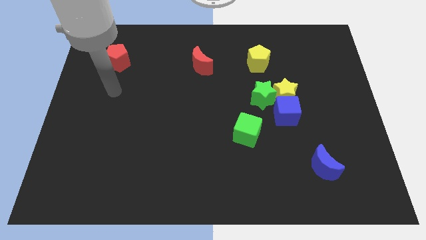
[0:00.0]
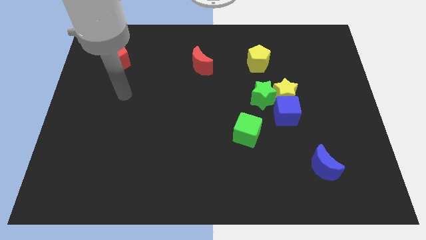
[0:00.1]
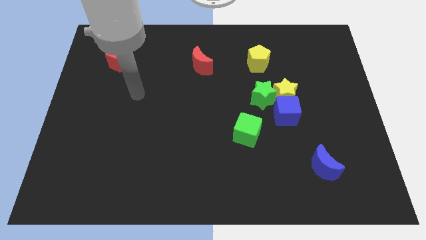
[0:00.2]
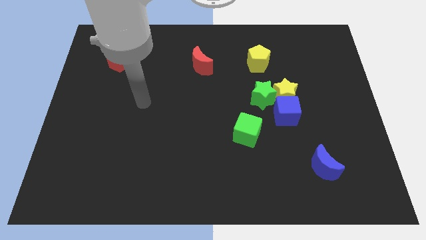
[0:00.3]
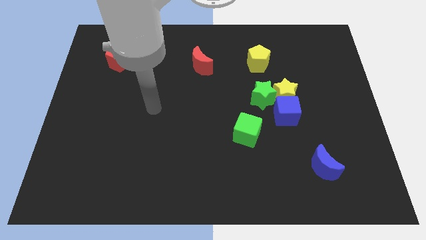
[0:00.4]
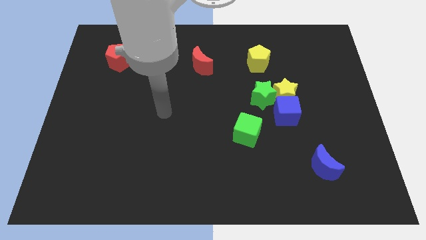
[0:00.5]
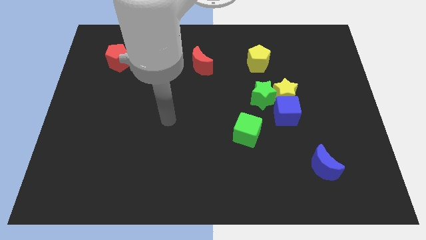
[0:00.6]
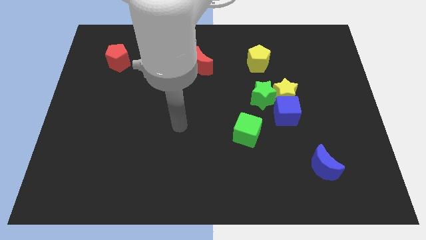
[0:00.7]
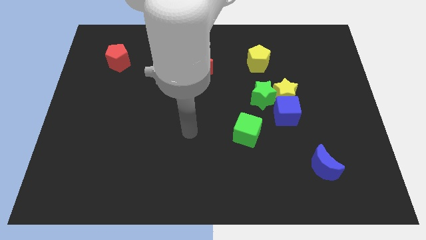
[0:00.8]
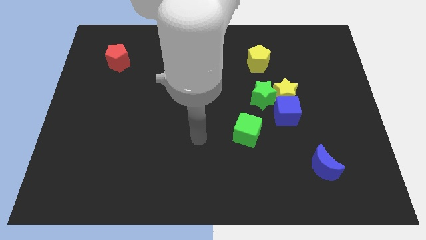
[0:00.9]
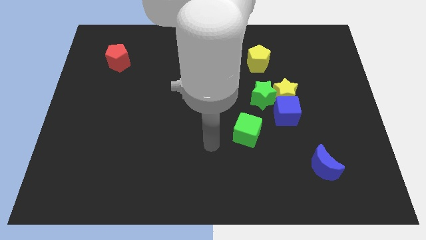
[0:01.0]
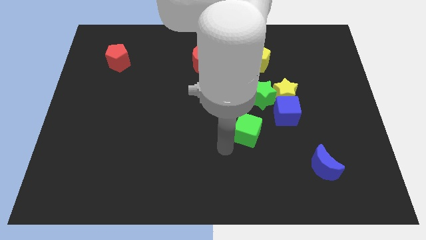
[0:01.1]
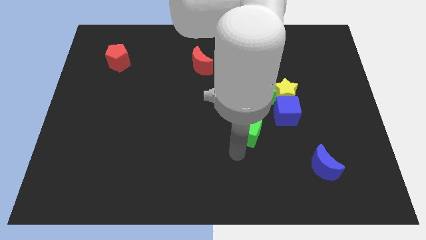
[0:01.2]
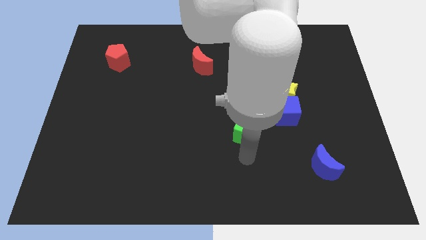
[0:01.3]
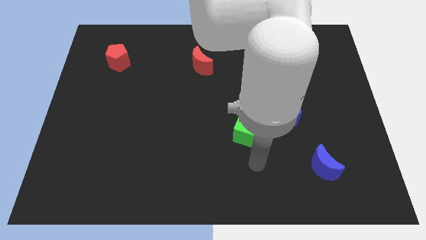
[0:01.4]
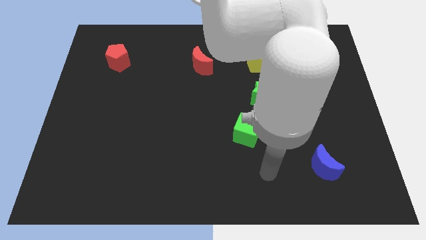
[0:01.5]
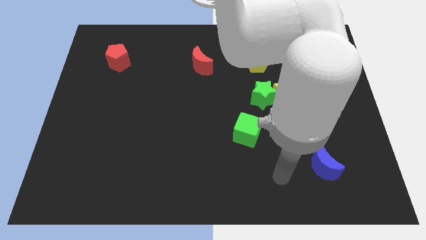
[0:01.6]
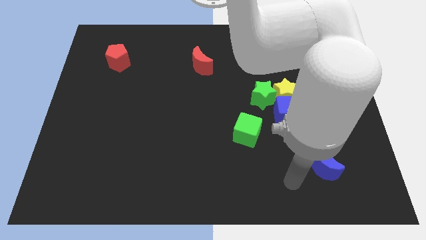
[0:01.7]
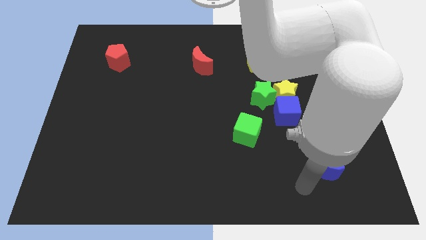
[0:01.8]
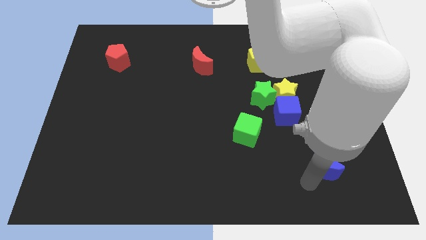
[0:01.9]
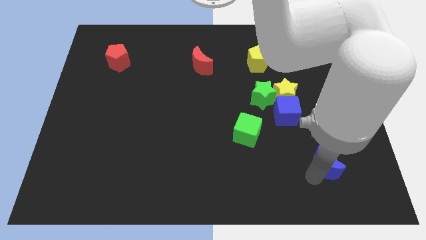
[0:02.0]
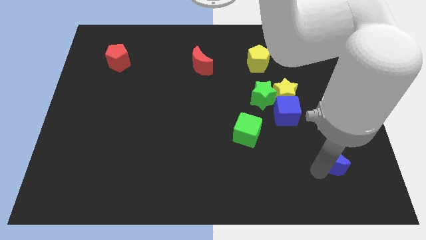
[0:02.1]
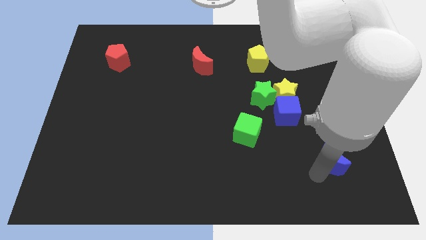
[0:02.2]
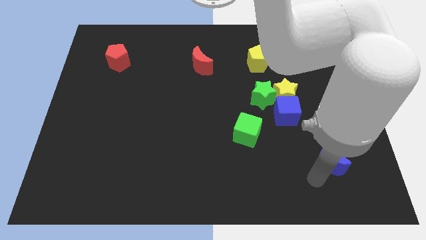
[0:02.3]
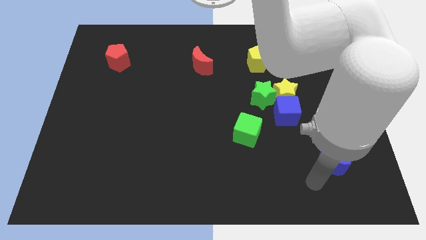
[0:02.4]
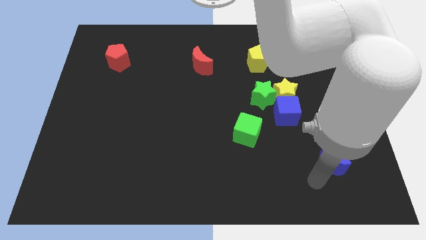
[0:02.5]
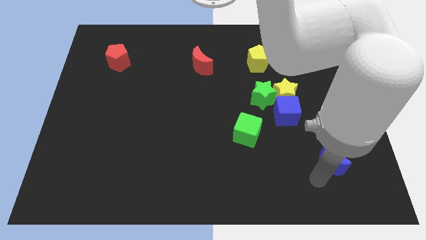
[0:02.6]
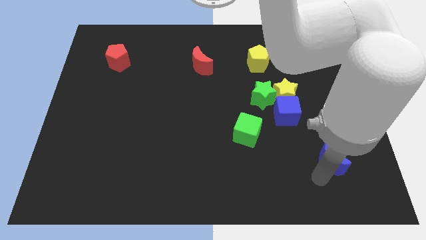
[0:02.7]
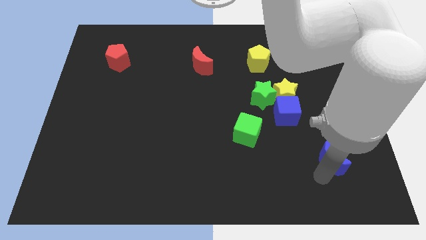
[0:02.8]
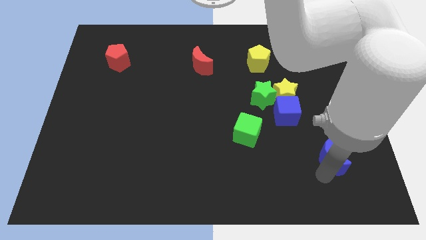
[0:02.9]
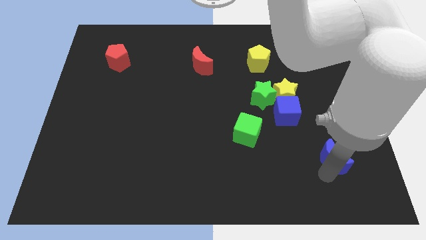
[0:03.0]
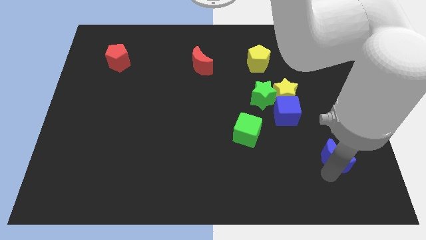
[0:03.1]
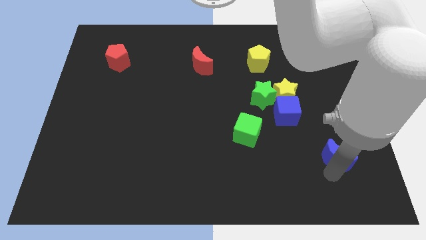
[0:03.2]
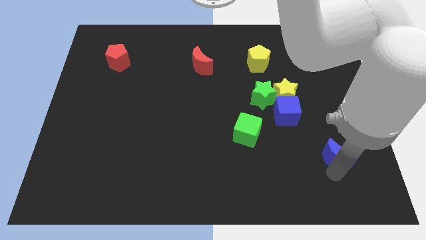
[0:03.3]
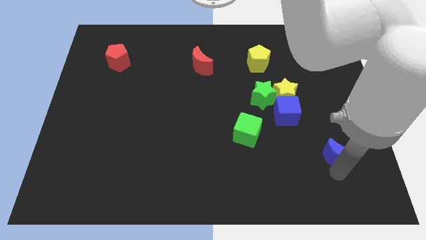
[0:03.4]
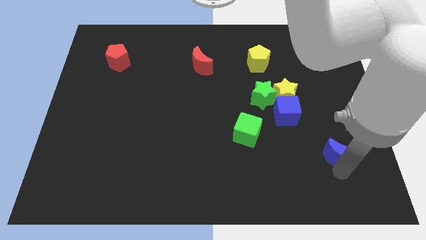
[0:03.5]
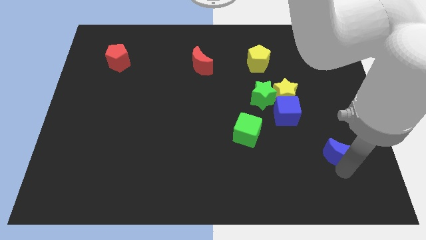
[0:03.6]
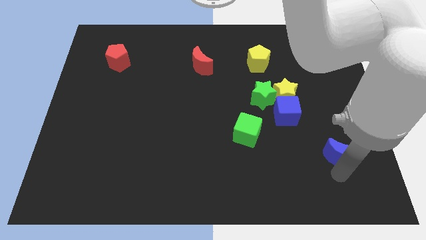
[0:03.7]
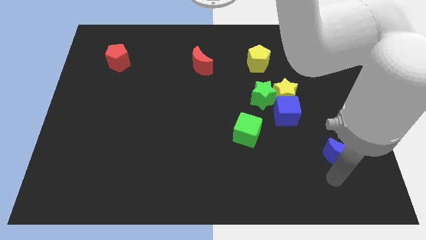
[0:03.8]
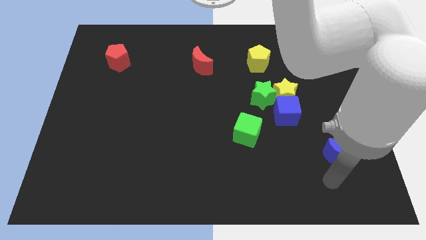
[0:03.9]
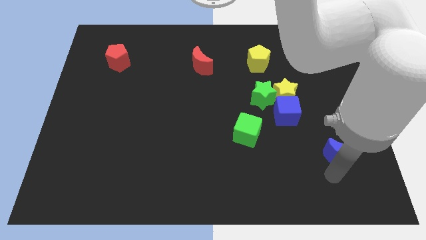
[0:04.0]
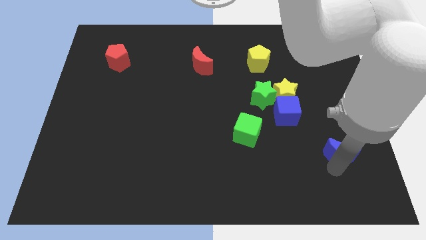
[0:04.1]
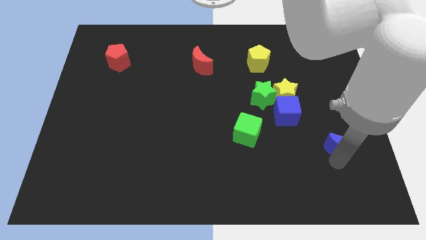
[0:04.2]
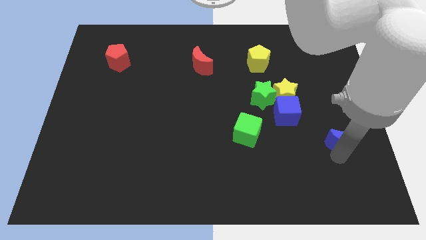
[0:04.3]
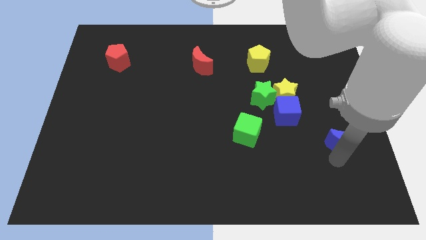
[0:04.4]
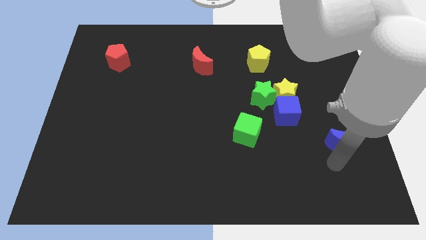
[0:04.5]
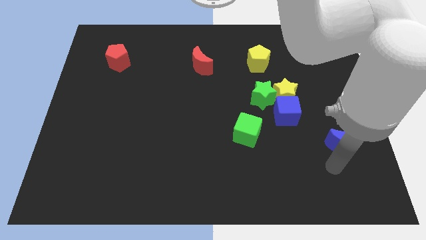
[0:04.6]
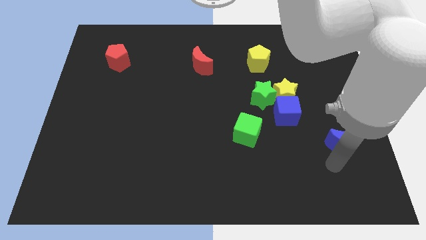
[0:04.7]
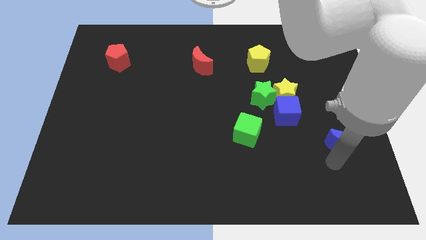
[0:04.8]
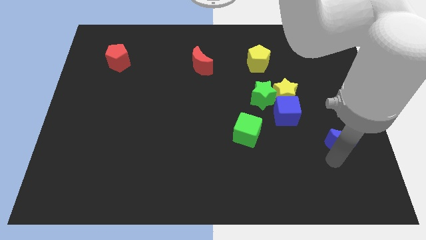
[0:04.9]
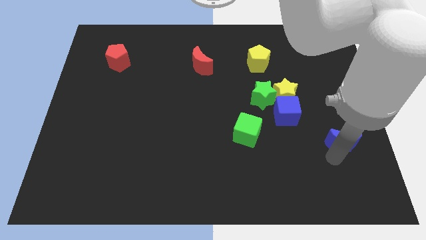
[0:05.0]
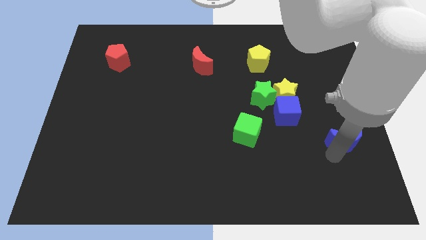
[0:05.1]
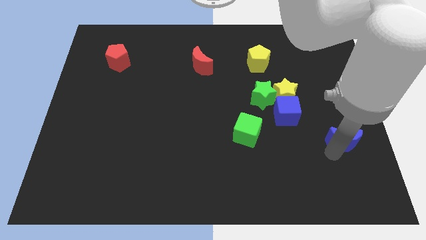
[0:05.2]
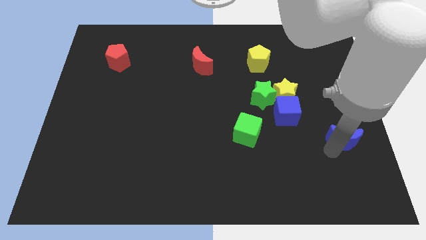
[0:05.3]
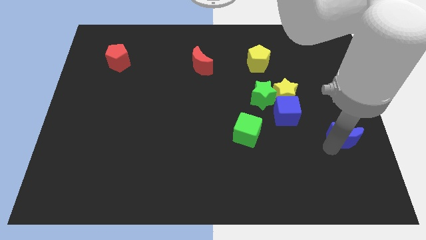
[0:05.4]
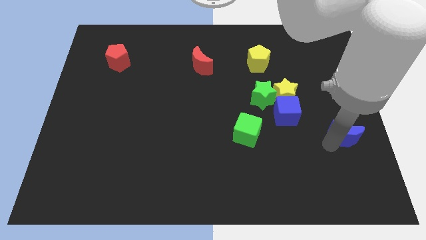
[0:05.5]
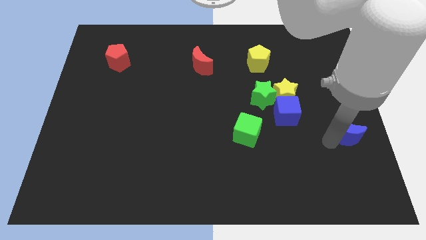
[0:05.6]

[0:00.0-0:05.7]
slide the blue moon to the right side of the board

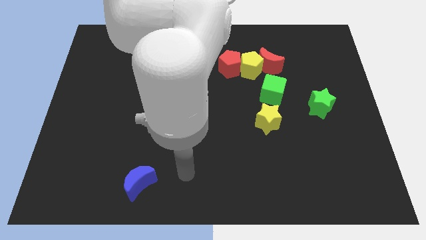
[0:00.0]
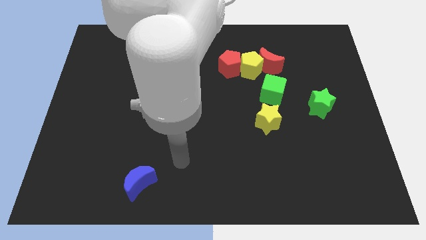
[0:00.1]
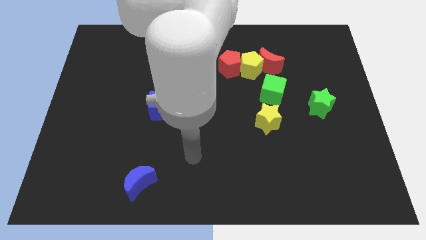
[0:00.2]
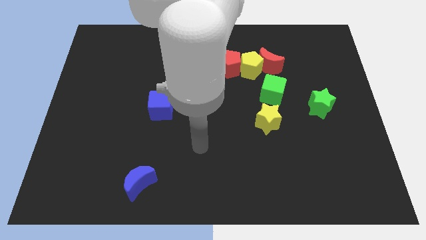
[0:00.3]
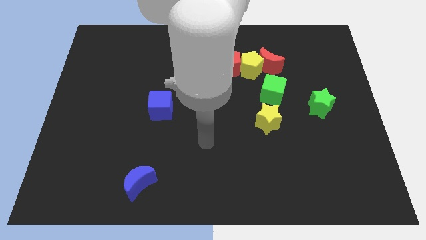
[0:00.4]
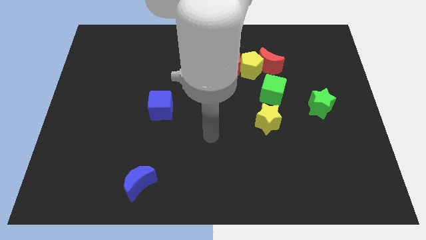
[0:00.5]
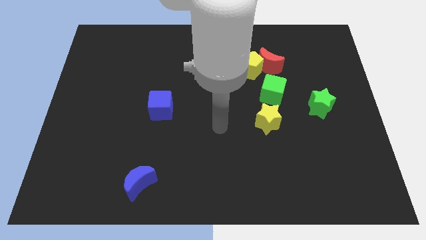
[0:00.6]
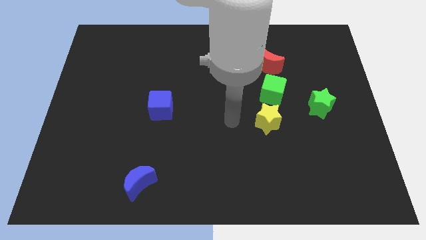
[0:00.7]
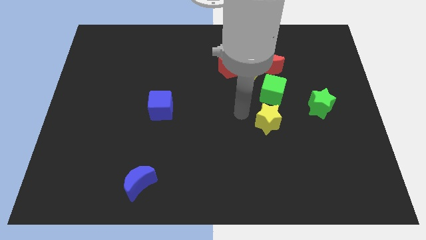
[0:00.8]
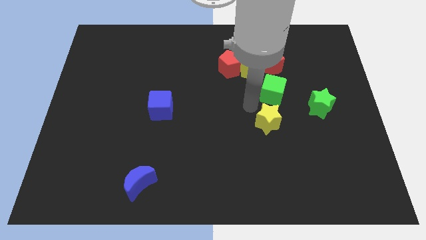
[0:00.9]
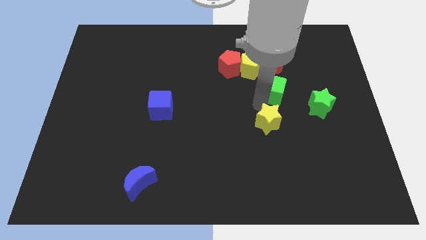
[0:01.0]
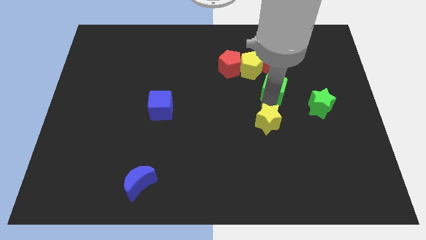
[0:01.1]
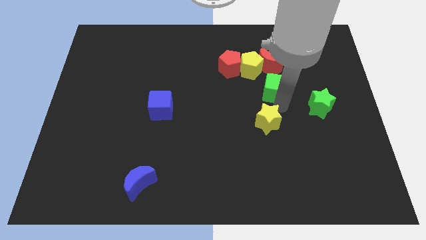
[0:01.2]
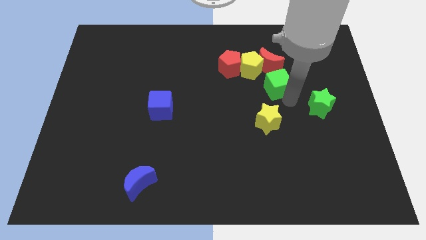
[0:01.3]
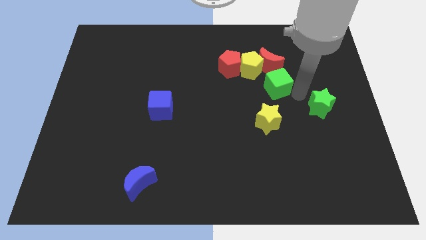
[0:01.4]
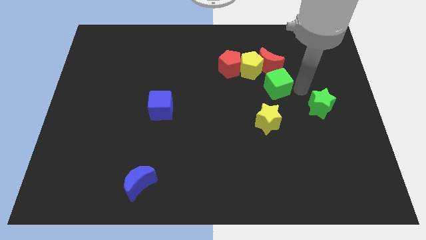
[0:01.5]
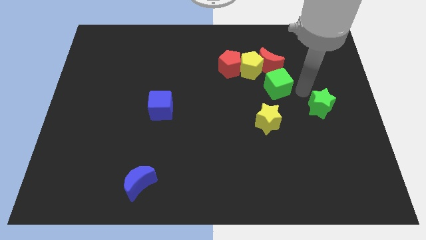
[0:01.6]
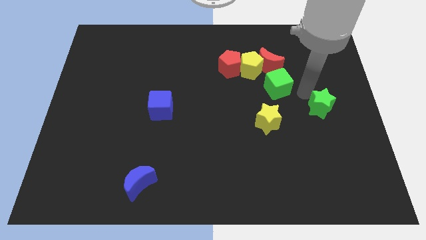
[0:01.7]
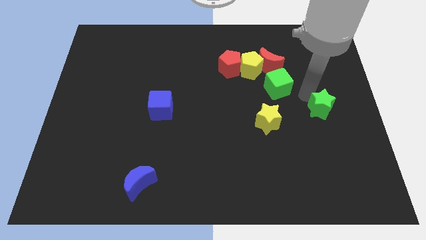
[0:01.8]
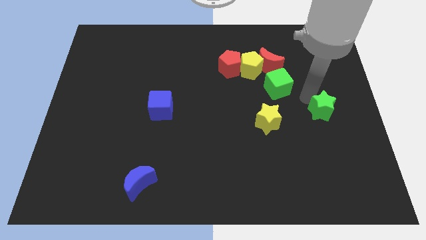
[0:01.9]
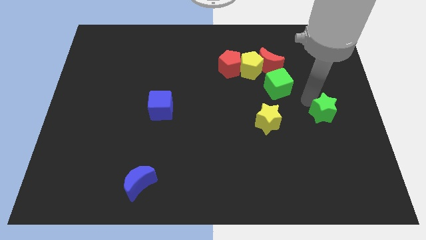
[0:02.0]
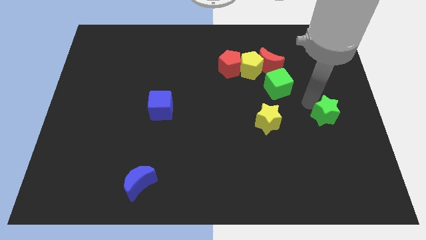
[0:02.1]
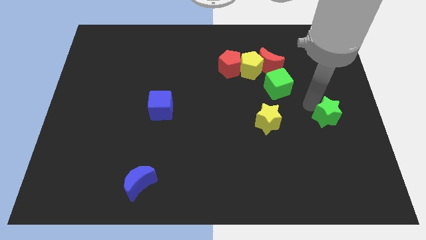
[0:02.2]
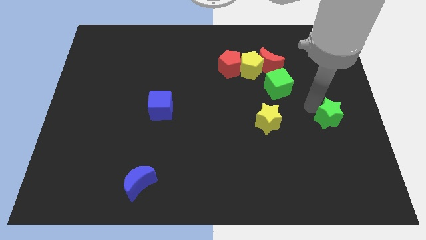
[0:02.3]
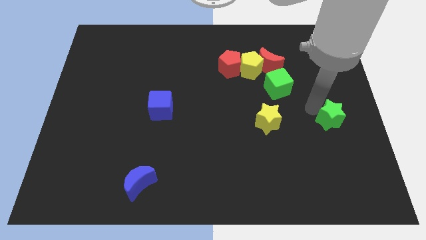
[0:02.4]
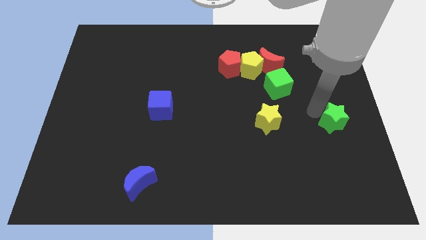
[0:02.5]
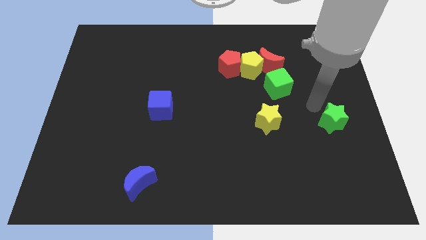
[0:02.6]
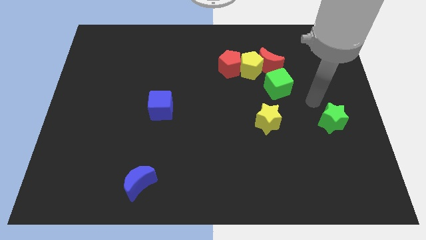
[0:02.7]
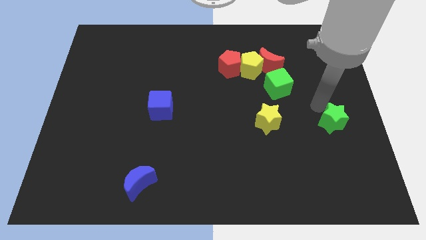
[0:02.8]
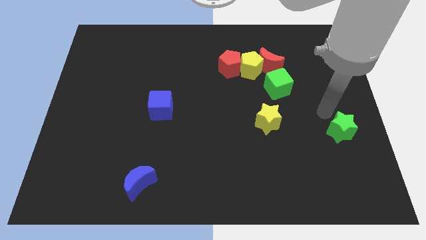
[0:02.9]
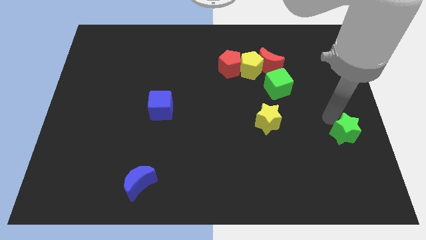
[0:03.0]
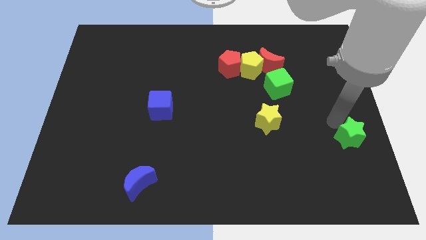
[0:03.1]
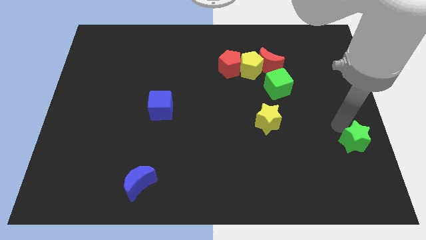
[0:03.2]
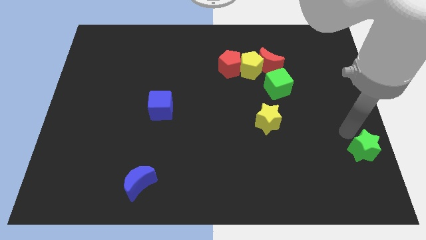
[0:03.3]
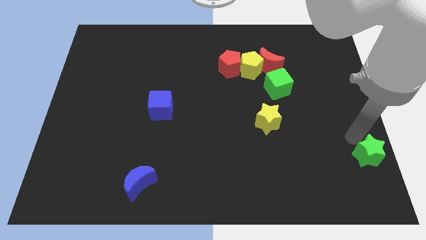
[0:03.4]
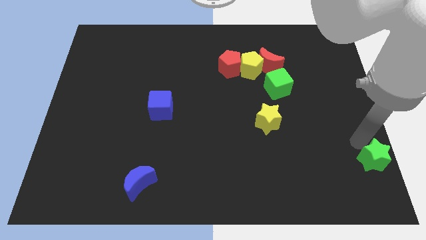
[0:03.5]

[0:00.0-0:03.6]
push the green star to the bottom right corner
